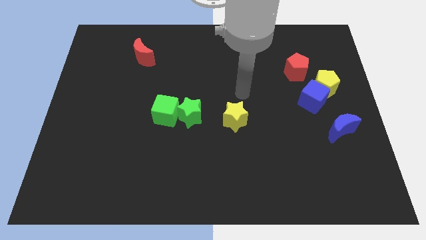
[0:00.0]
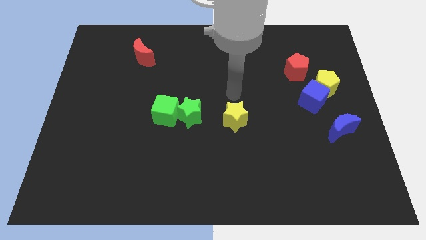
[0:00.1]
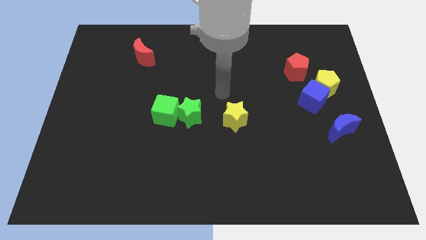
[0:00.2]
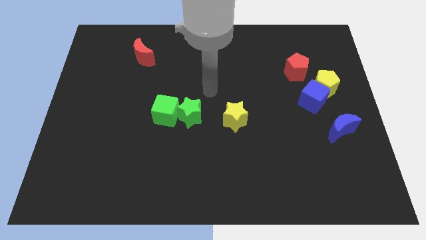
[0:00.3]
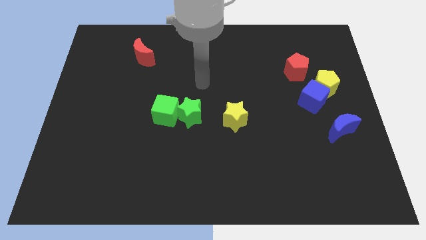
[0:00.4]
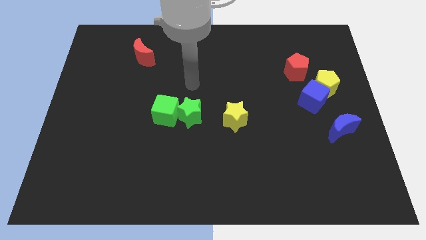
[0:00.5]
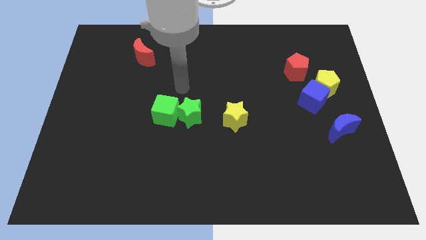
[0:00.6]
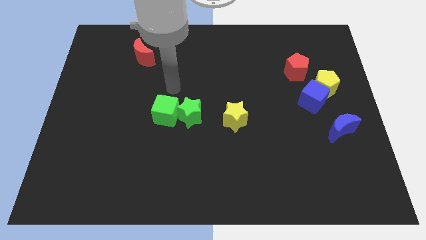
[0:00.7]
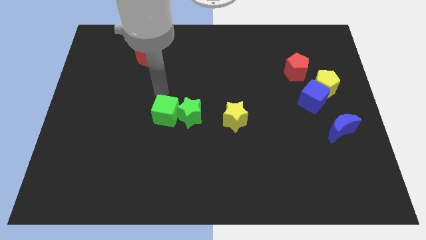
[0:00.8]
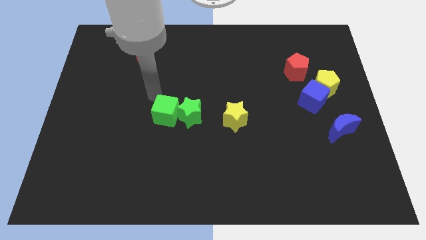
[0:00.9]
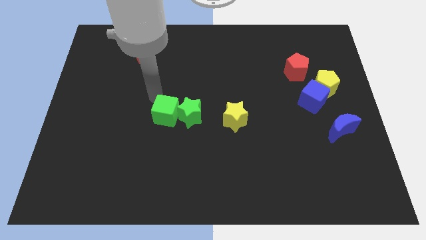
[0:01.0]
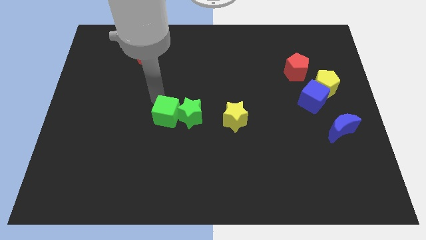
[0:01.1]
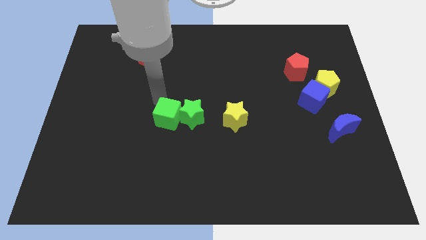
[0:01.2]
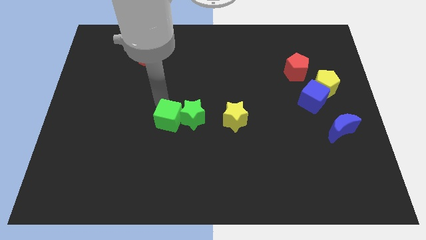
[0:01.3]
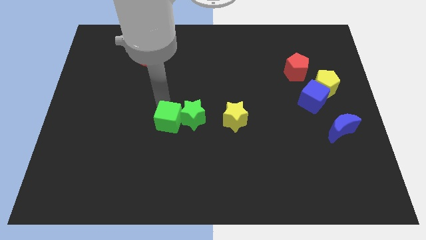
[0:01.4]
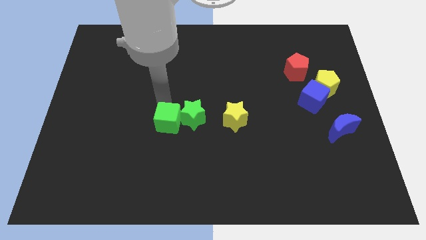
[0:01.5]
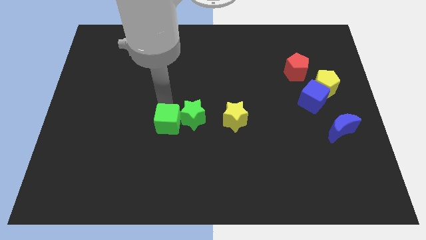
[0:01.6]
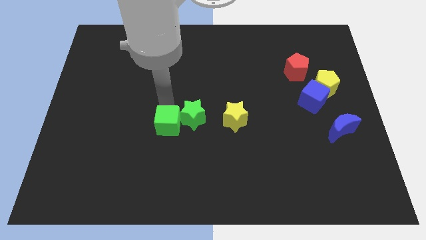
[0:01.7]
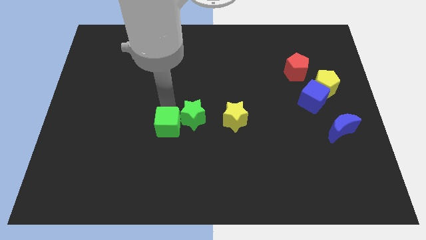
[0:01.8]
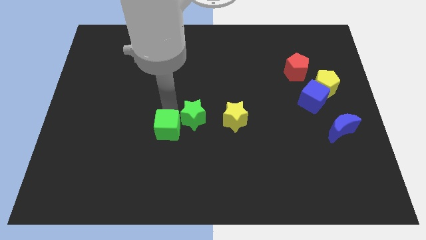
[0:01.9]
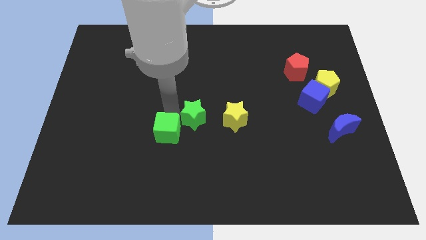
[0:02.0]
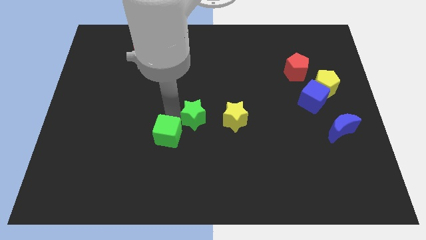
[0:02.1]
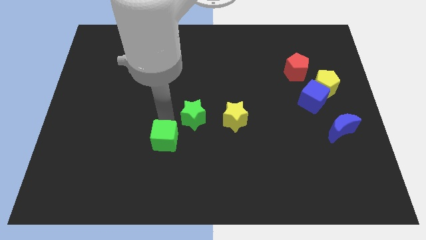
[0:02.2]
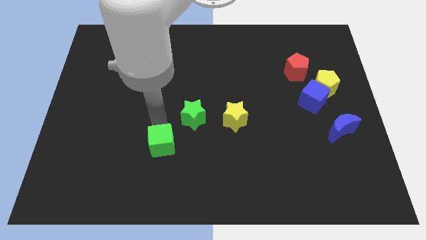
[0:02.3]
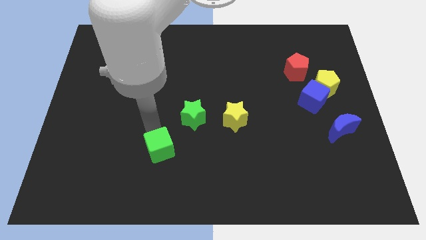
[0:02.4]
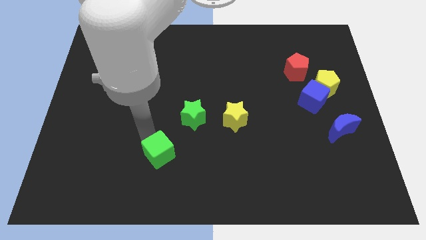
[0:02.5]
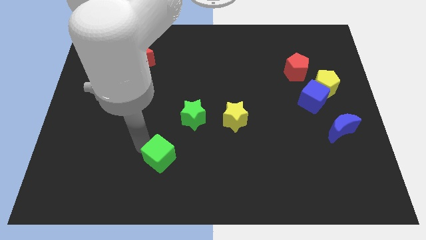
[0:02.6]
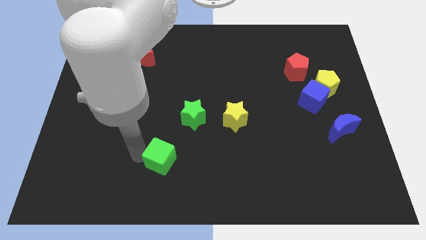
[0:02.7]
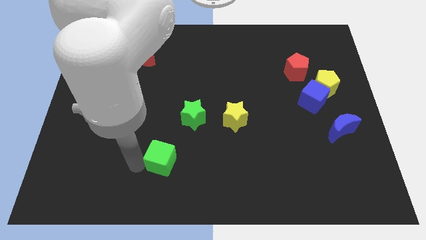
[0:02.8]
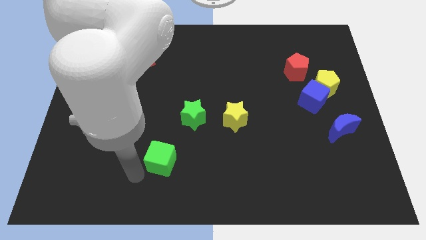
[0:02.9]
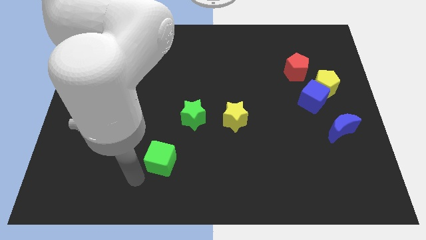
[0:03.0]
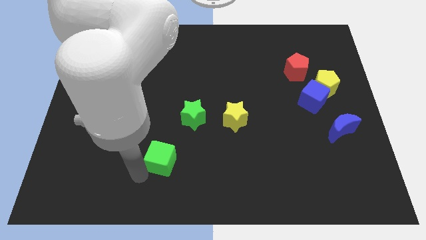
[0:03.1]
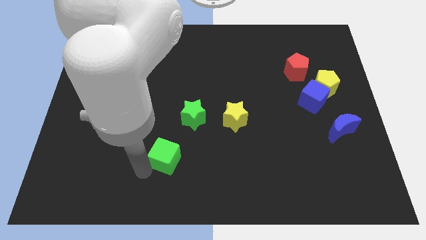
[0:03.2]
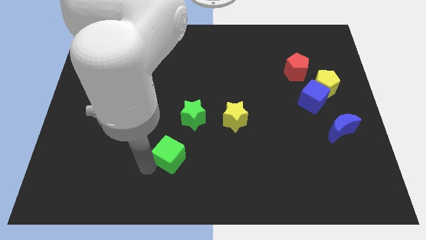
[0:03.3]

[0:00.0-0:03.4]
move the green cube down and to the right diagonally somewhat

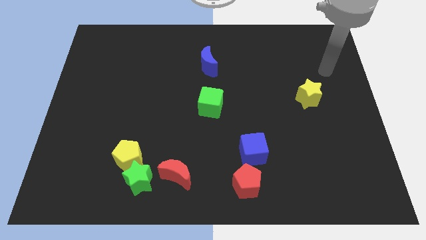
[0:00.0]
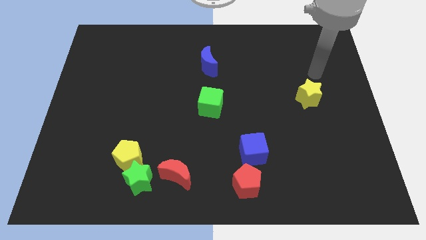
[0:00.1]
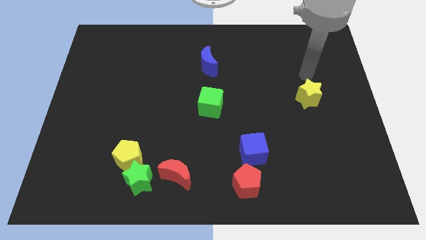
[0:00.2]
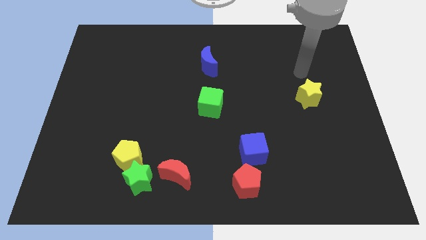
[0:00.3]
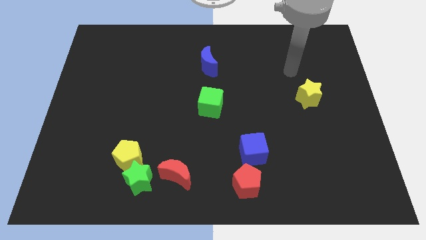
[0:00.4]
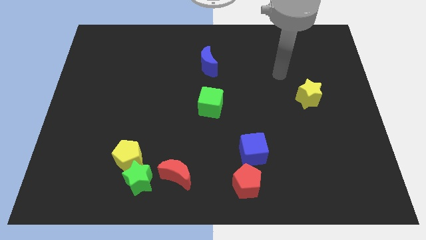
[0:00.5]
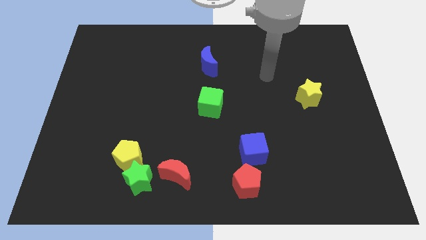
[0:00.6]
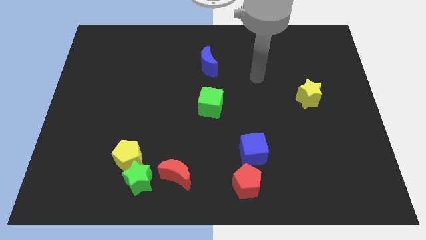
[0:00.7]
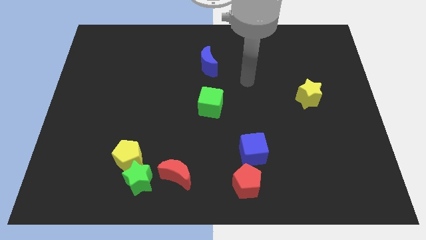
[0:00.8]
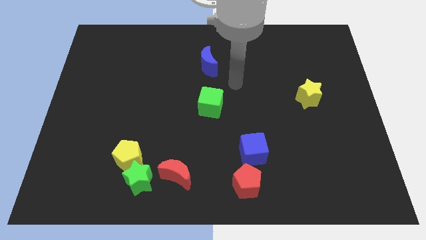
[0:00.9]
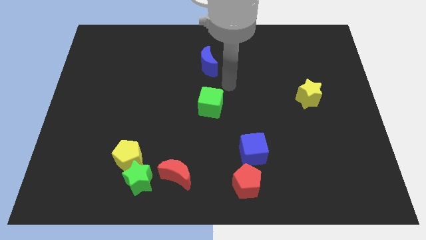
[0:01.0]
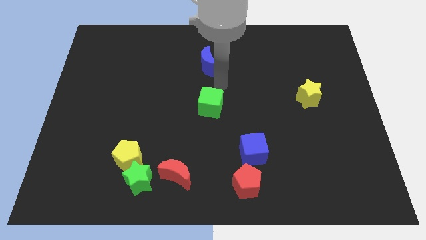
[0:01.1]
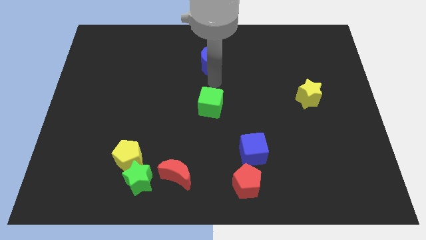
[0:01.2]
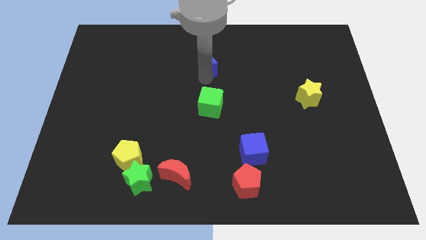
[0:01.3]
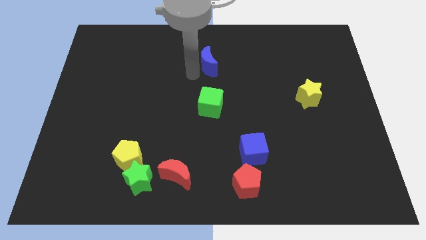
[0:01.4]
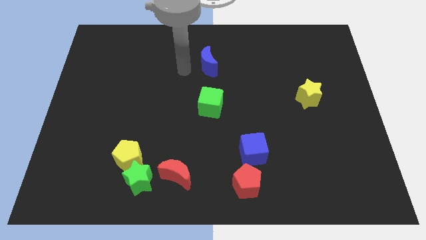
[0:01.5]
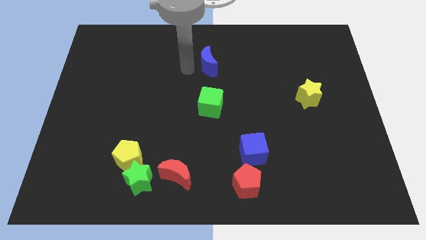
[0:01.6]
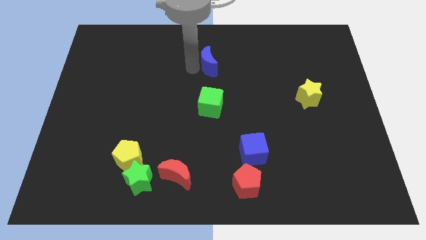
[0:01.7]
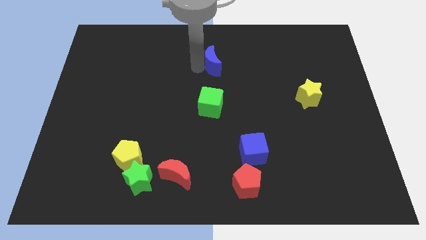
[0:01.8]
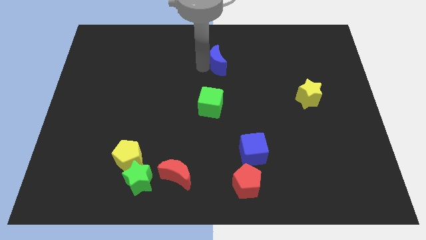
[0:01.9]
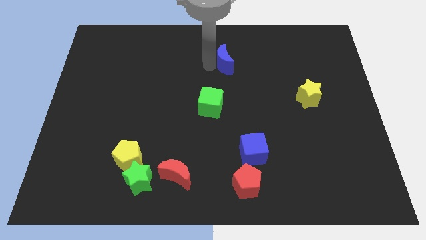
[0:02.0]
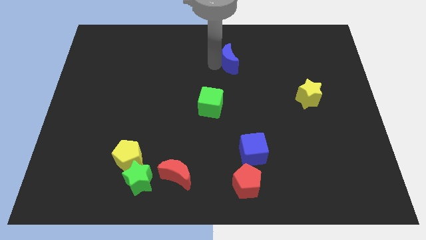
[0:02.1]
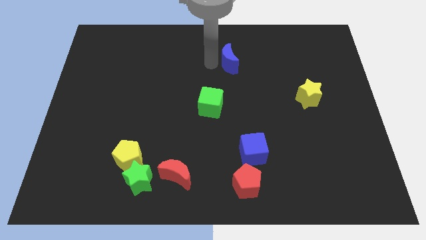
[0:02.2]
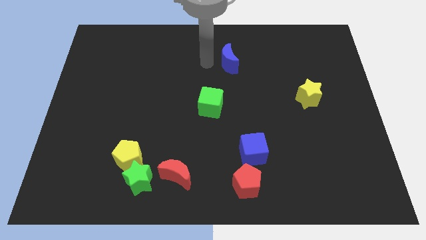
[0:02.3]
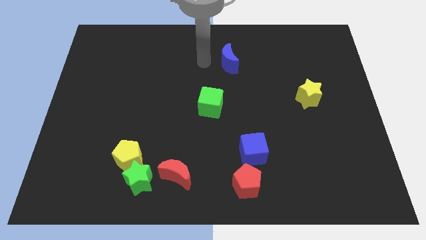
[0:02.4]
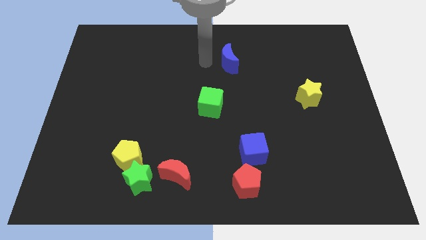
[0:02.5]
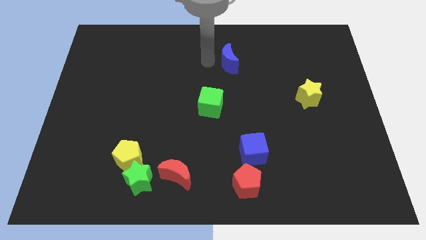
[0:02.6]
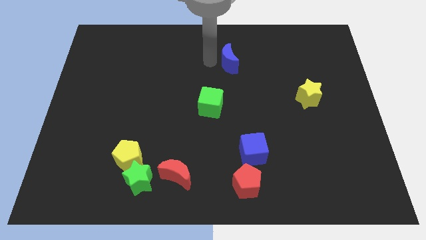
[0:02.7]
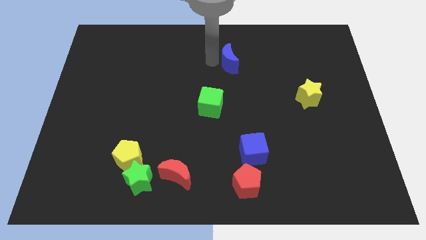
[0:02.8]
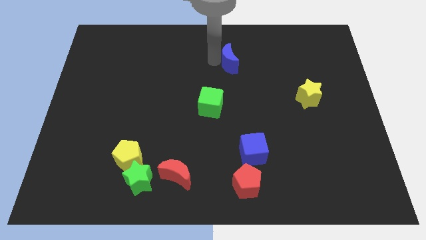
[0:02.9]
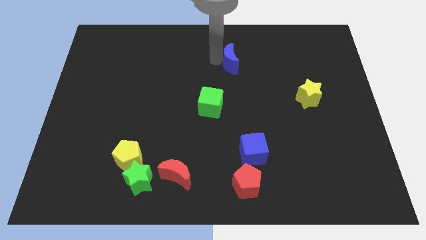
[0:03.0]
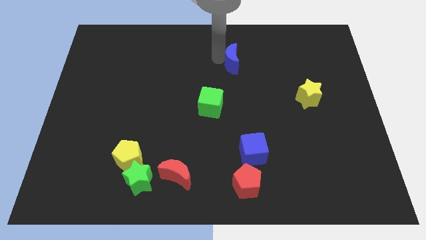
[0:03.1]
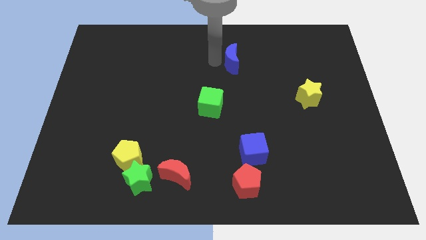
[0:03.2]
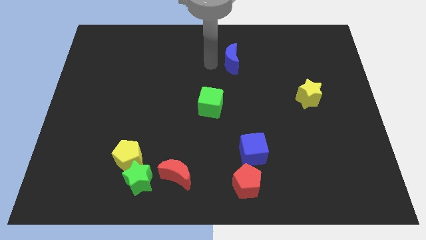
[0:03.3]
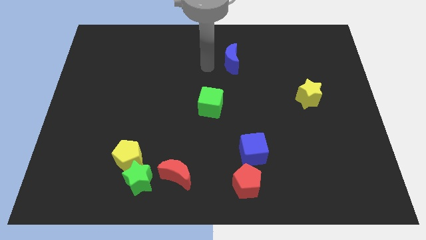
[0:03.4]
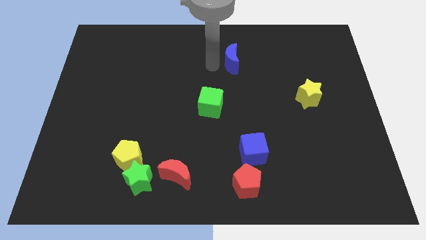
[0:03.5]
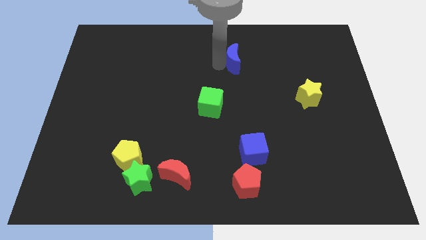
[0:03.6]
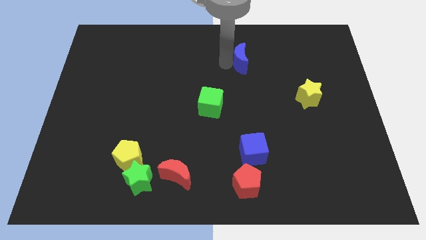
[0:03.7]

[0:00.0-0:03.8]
slightly push the blue moon right

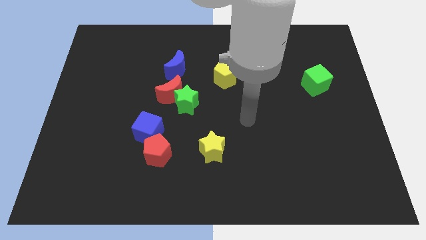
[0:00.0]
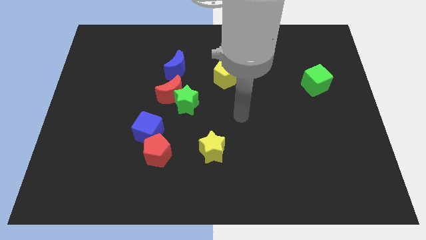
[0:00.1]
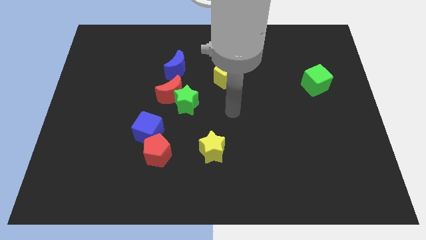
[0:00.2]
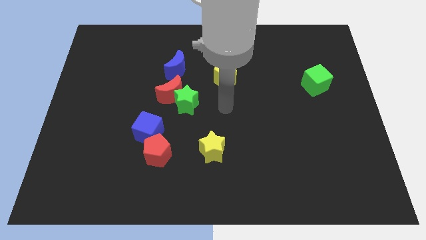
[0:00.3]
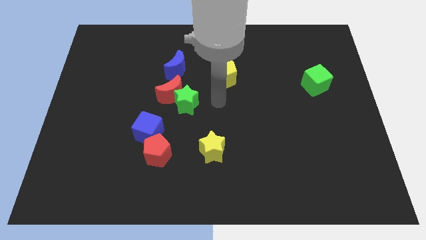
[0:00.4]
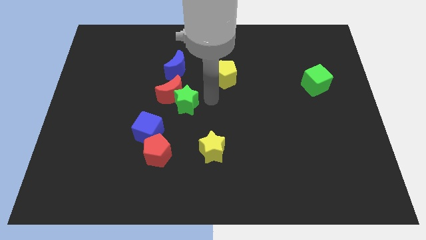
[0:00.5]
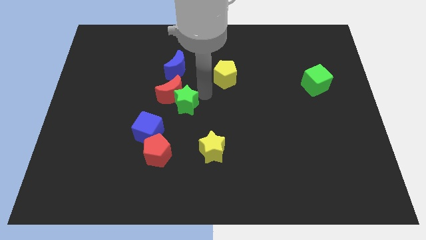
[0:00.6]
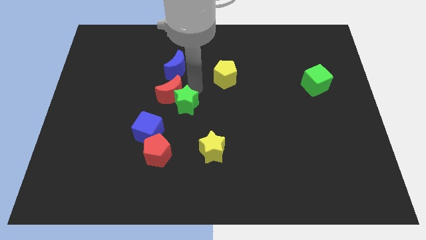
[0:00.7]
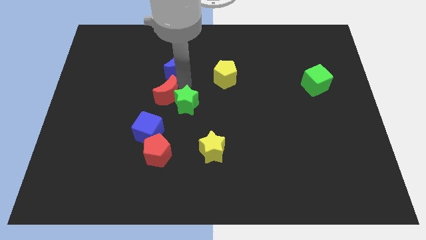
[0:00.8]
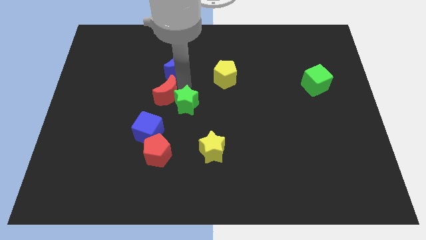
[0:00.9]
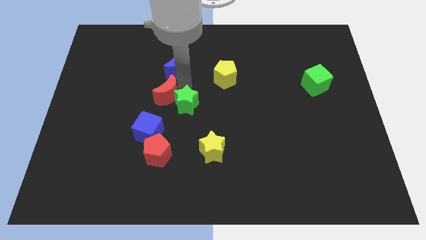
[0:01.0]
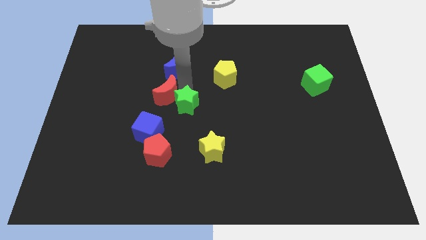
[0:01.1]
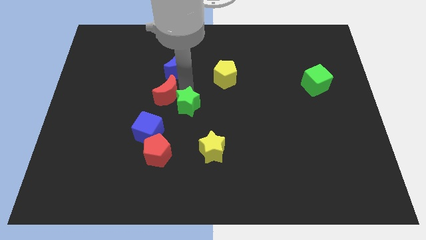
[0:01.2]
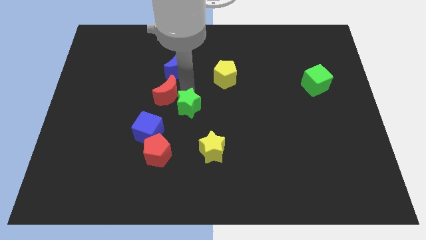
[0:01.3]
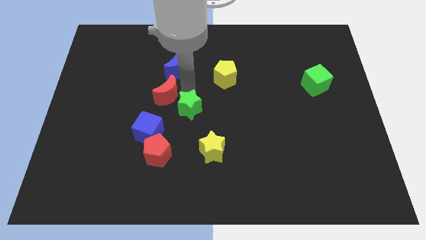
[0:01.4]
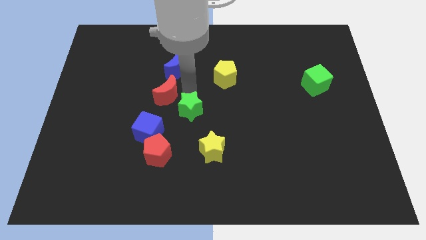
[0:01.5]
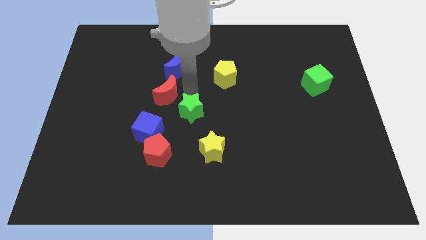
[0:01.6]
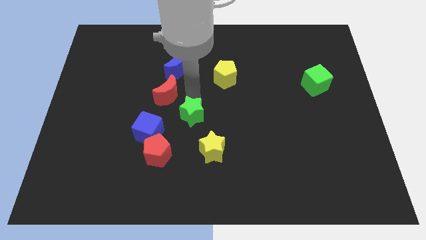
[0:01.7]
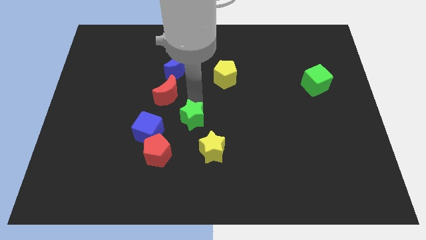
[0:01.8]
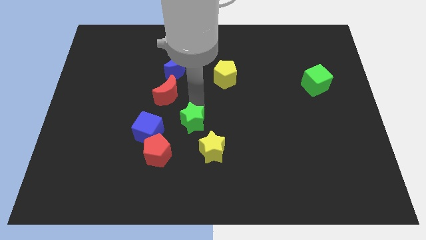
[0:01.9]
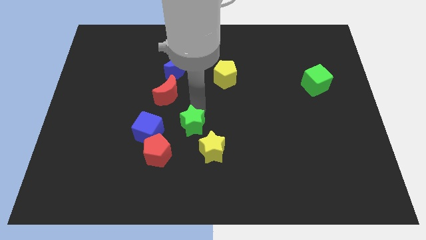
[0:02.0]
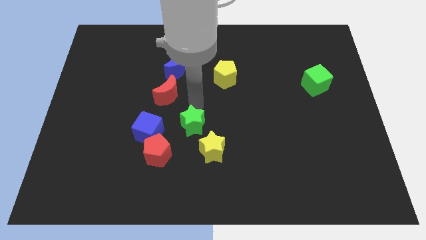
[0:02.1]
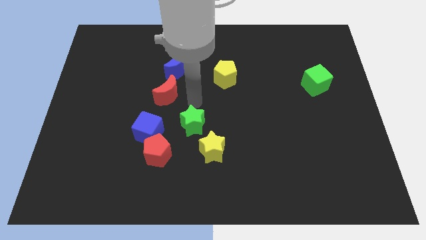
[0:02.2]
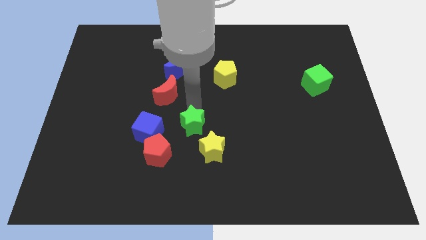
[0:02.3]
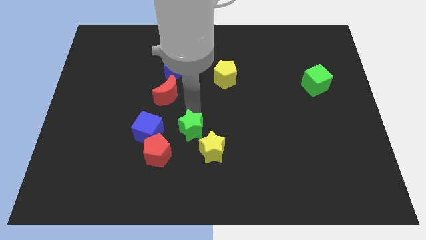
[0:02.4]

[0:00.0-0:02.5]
slide the green star downwards a little
